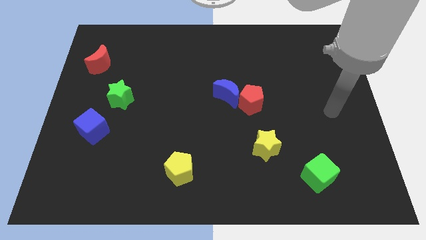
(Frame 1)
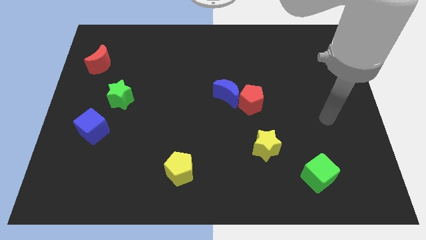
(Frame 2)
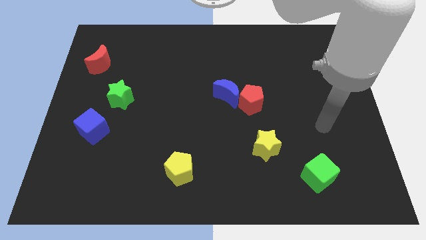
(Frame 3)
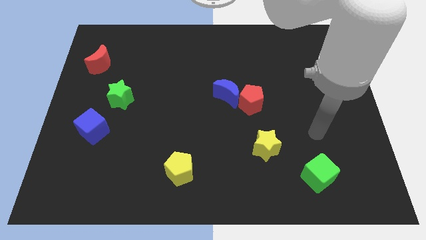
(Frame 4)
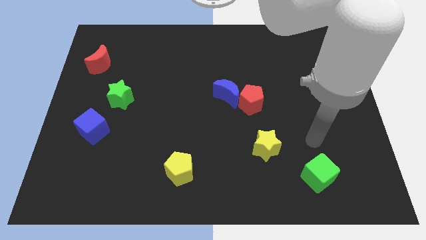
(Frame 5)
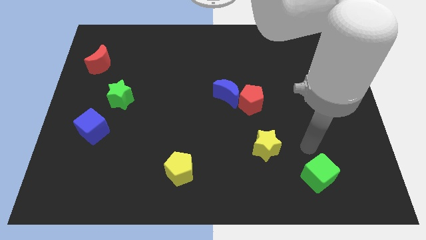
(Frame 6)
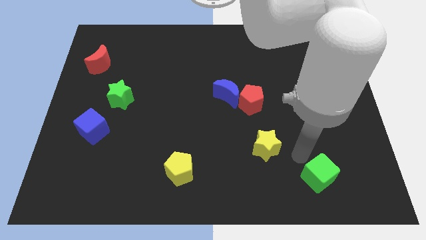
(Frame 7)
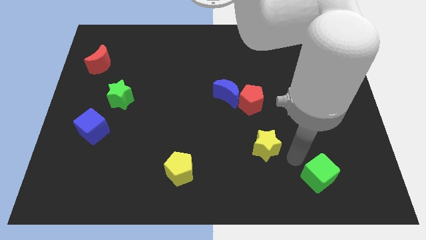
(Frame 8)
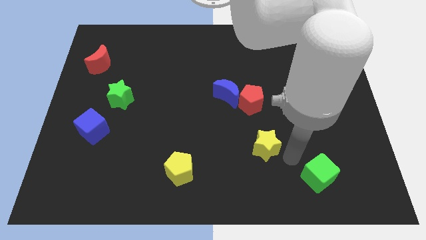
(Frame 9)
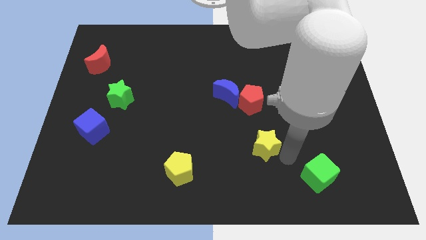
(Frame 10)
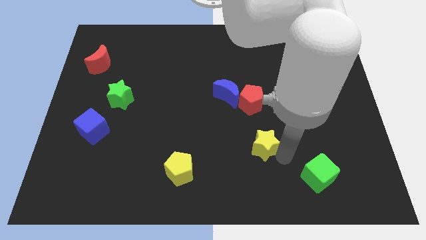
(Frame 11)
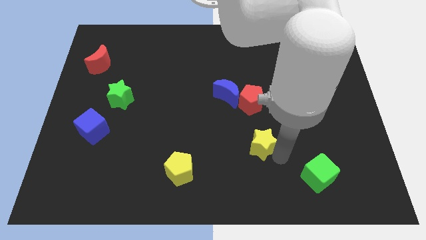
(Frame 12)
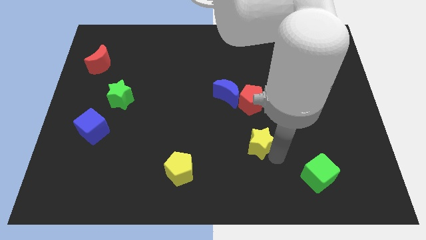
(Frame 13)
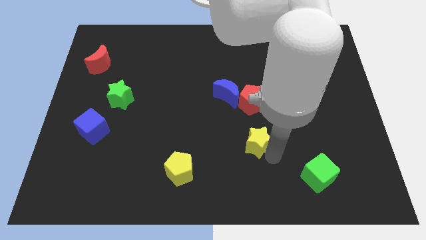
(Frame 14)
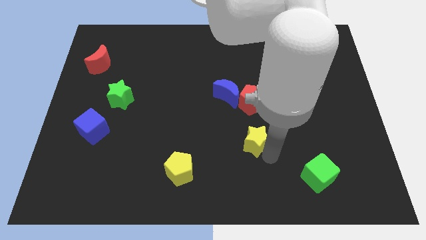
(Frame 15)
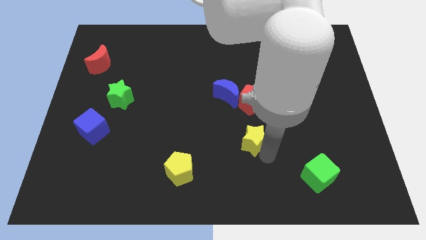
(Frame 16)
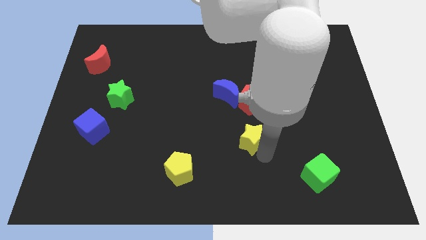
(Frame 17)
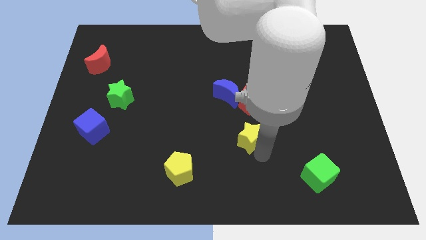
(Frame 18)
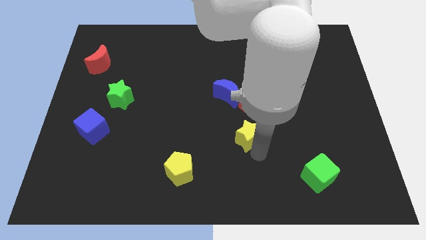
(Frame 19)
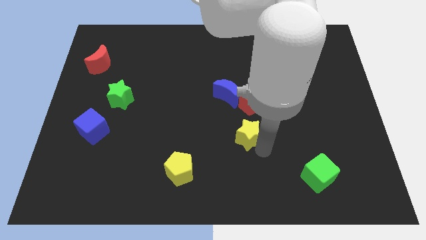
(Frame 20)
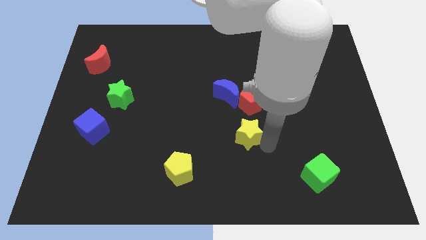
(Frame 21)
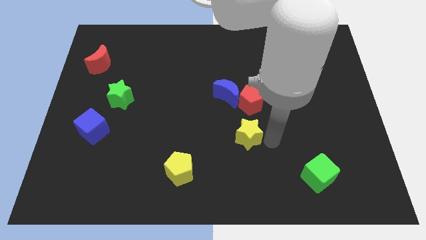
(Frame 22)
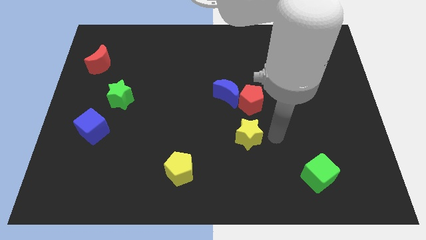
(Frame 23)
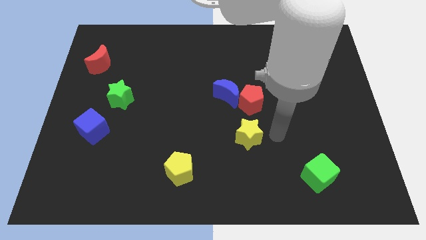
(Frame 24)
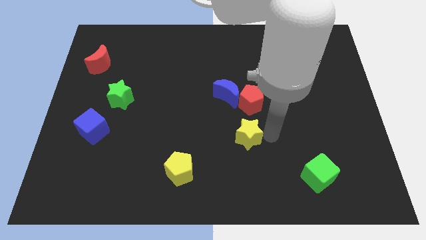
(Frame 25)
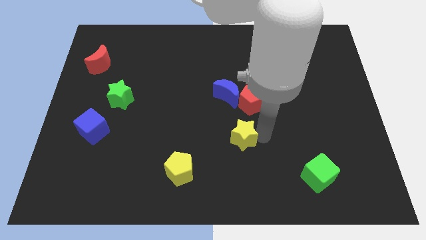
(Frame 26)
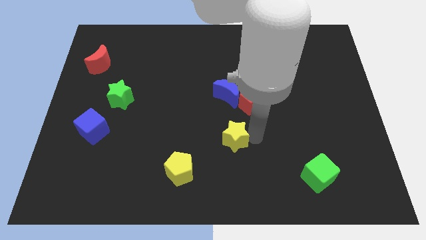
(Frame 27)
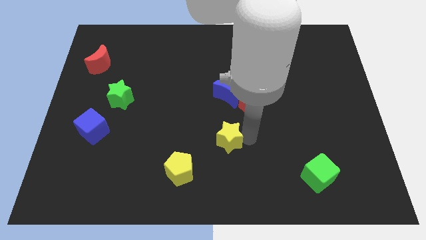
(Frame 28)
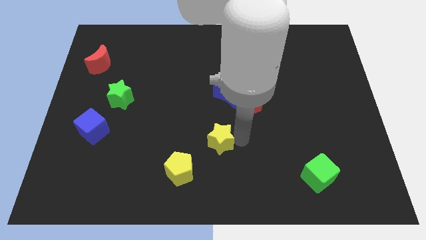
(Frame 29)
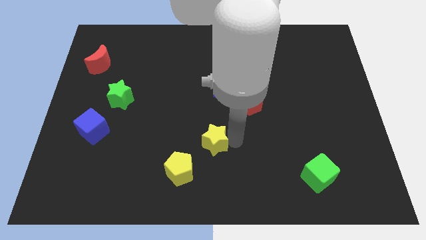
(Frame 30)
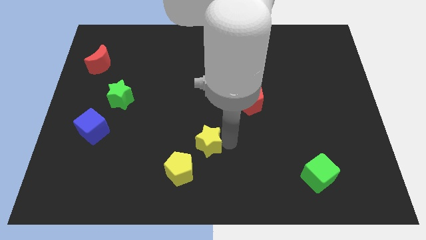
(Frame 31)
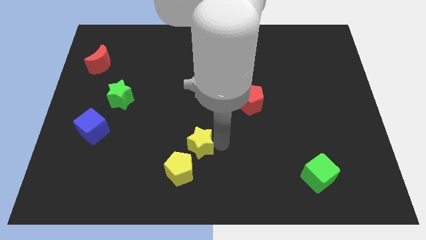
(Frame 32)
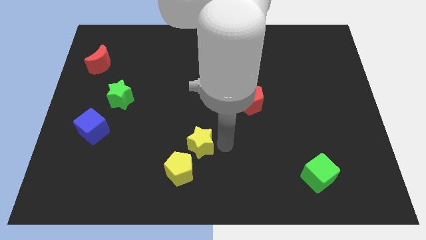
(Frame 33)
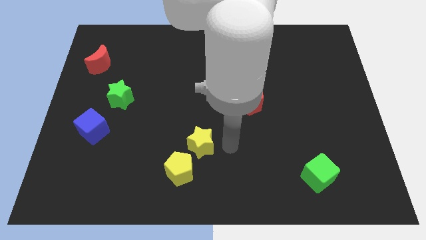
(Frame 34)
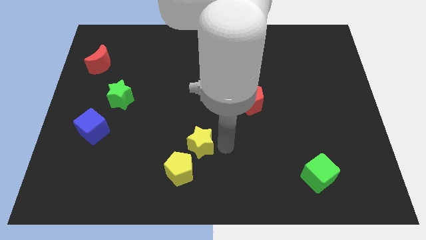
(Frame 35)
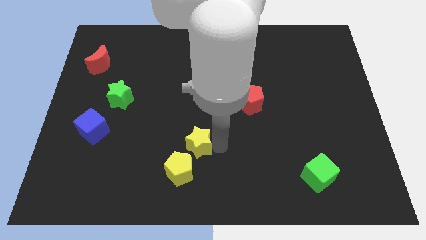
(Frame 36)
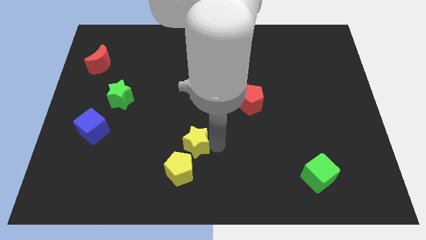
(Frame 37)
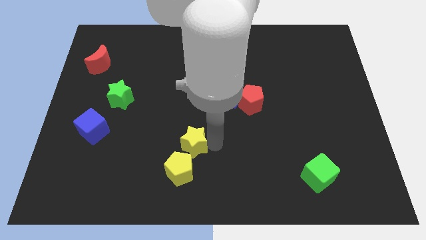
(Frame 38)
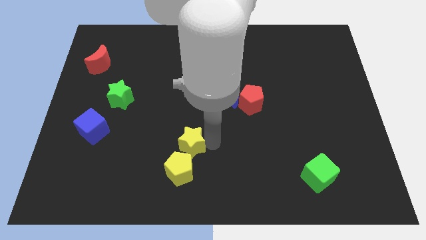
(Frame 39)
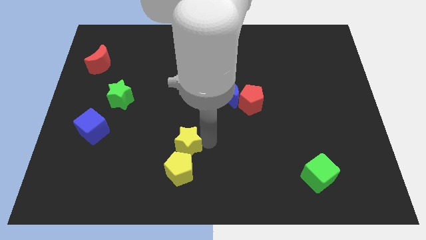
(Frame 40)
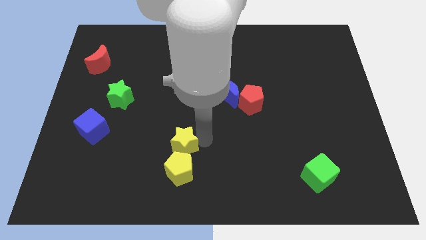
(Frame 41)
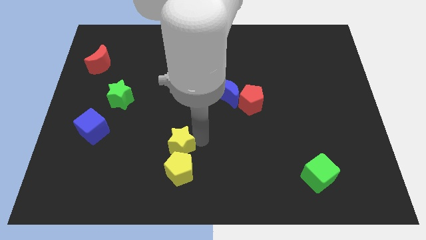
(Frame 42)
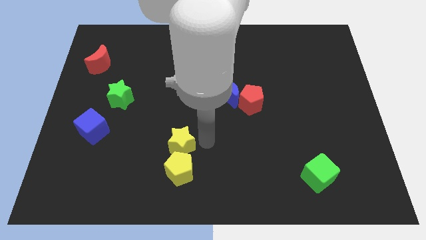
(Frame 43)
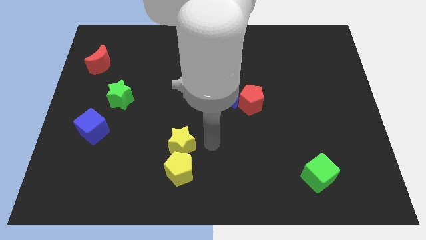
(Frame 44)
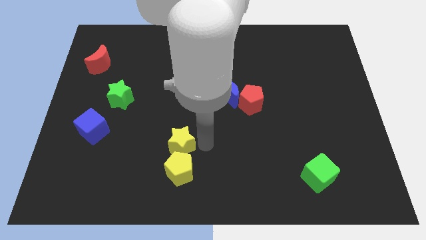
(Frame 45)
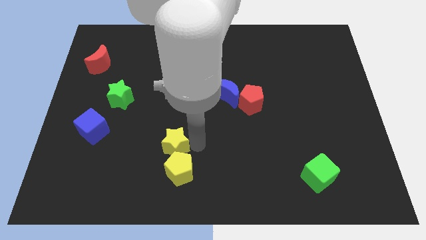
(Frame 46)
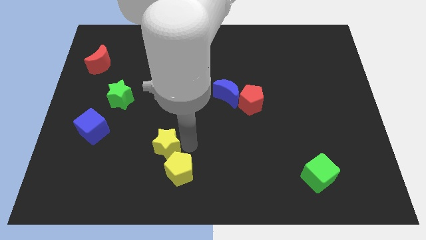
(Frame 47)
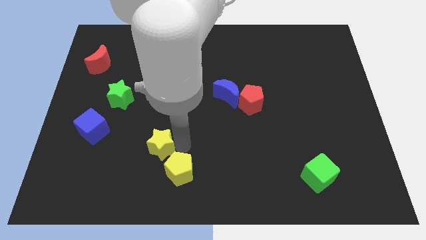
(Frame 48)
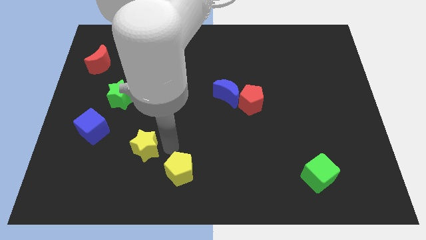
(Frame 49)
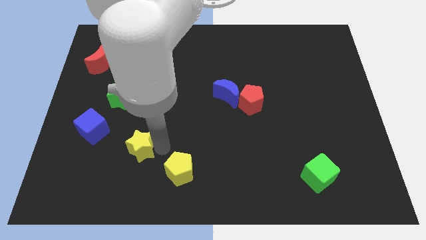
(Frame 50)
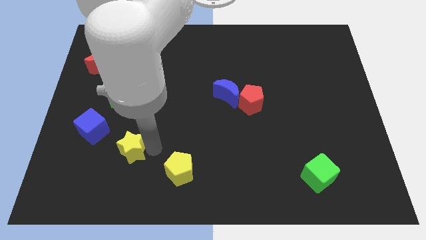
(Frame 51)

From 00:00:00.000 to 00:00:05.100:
push the yellow star to the bottom right side of the blue cube

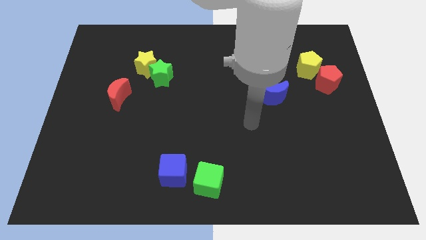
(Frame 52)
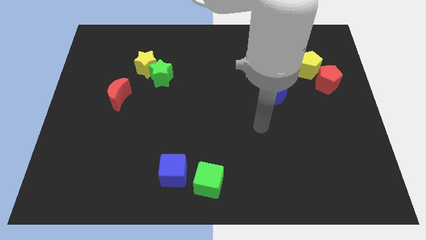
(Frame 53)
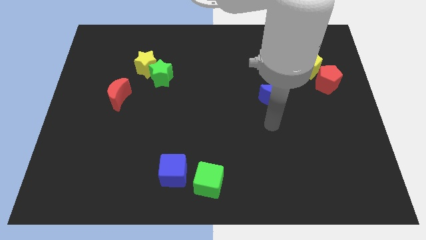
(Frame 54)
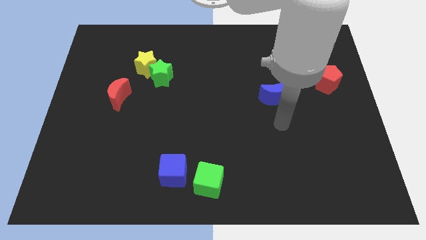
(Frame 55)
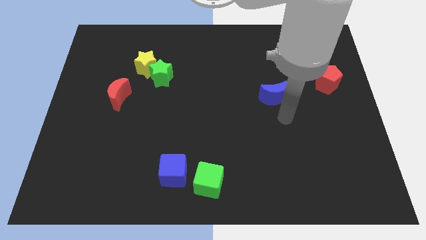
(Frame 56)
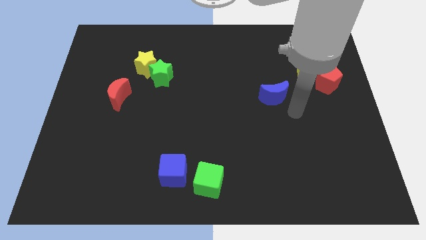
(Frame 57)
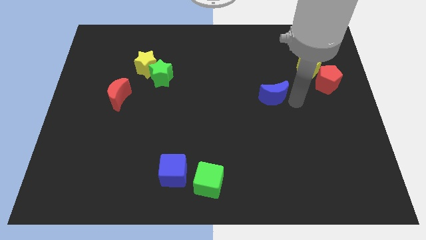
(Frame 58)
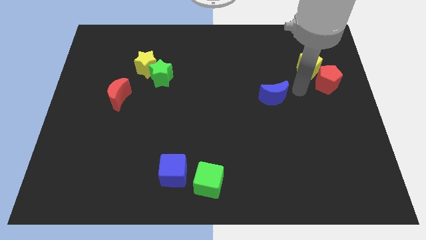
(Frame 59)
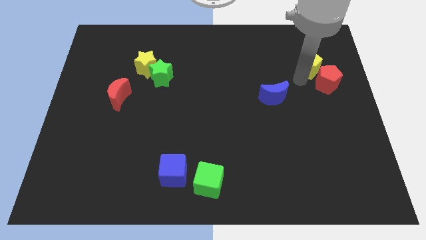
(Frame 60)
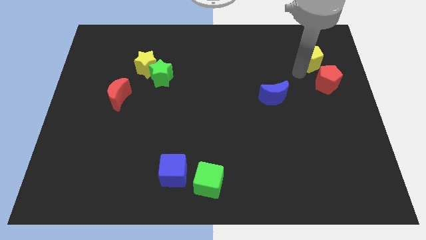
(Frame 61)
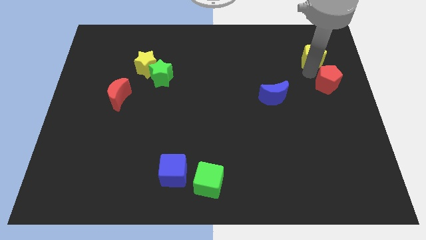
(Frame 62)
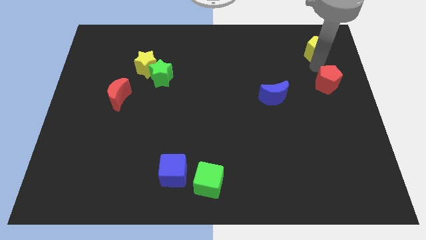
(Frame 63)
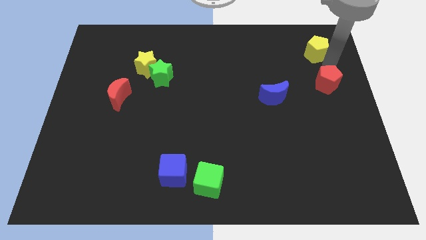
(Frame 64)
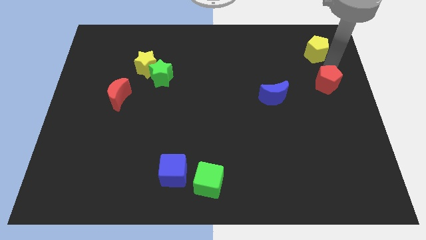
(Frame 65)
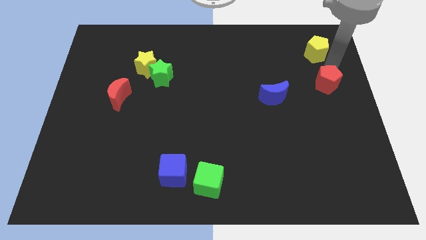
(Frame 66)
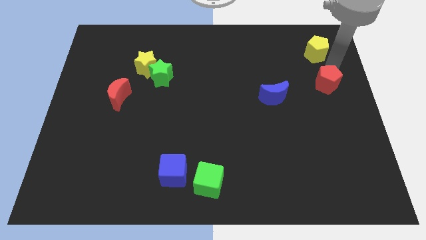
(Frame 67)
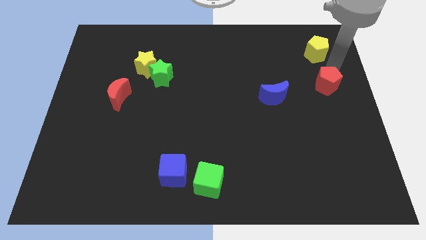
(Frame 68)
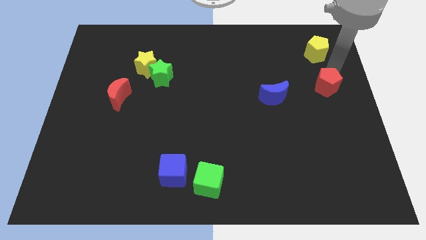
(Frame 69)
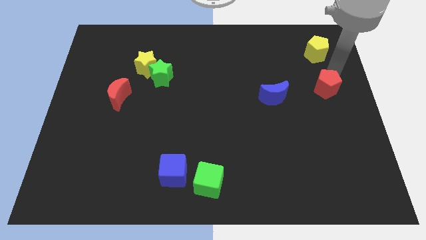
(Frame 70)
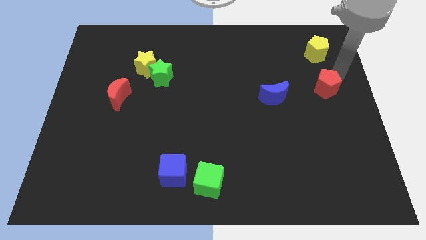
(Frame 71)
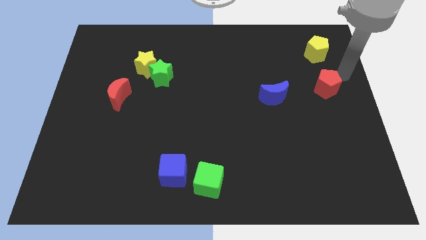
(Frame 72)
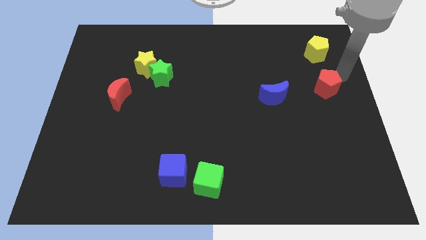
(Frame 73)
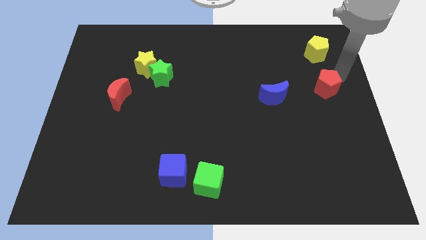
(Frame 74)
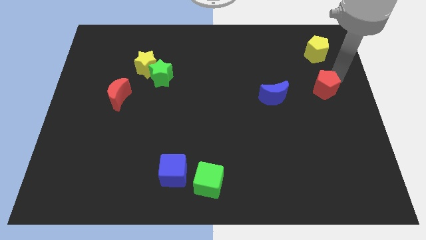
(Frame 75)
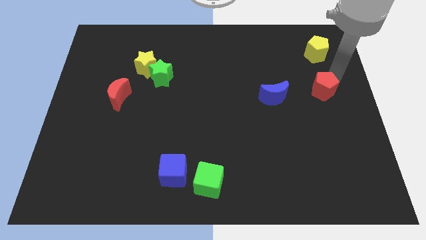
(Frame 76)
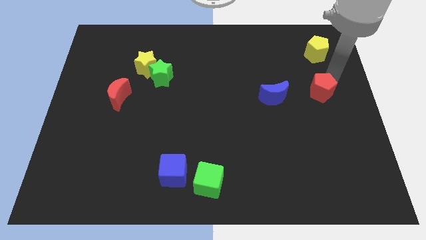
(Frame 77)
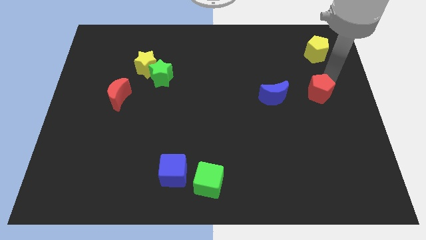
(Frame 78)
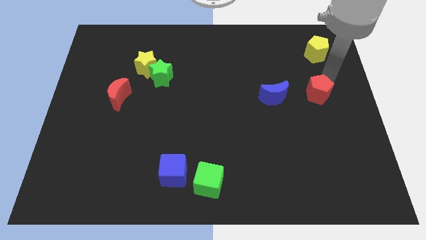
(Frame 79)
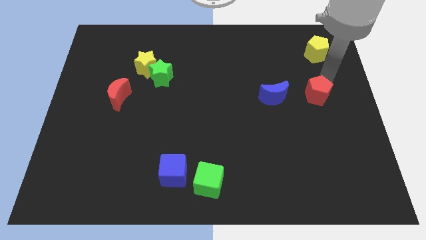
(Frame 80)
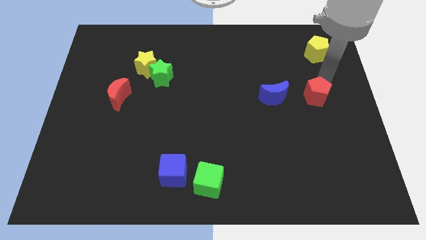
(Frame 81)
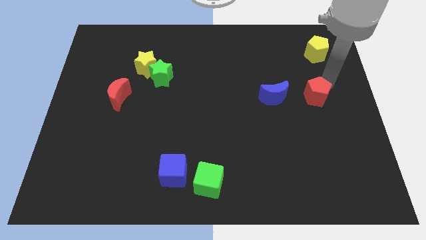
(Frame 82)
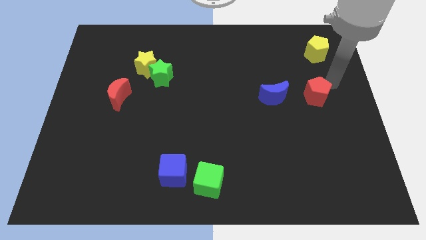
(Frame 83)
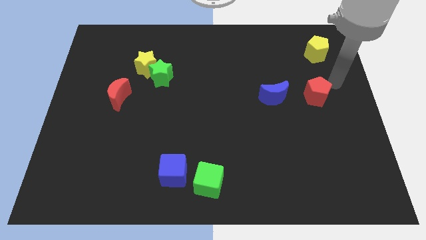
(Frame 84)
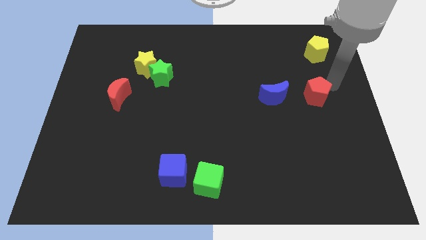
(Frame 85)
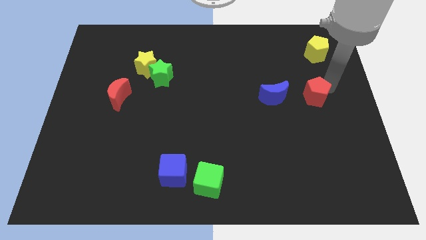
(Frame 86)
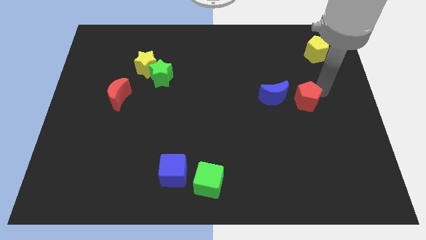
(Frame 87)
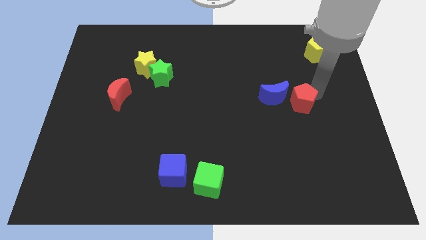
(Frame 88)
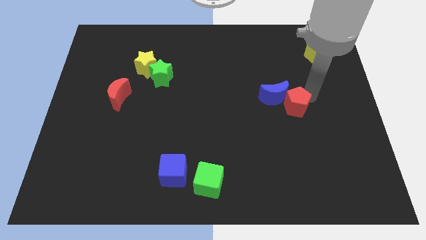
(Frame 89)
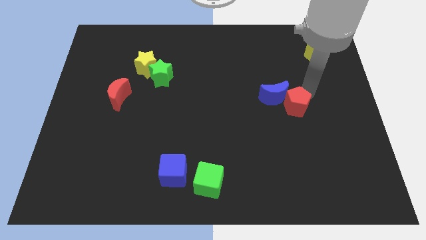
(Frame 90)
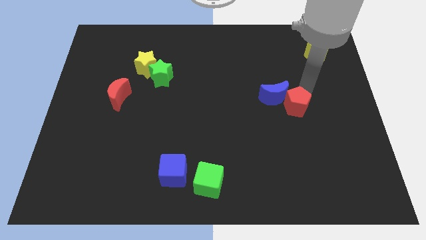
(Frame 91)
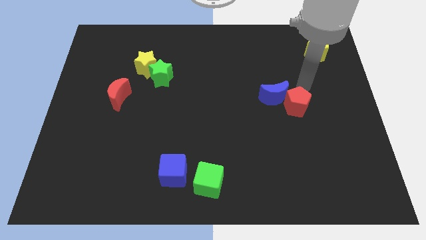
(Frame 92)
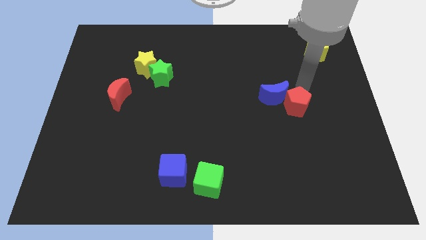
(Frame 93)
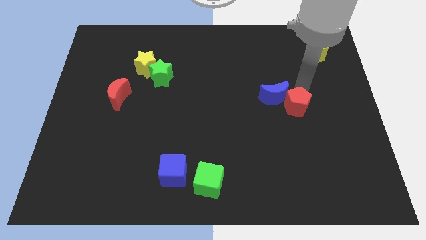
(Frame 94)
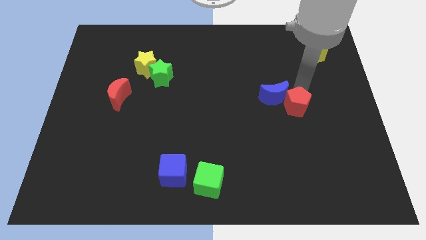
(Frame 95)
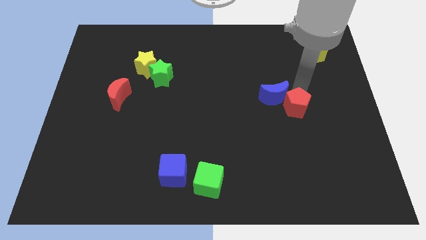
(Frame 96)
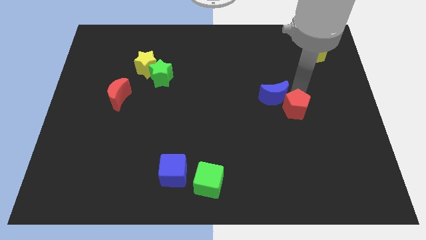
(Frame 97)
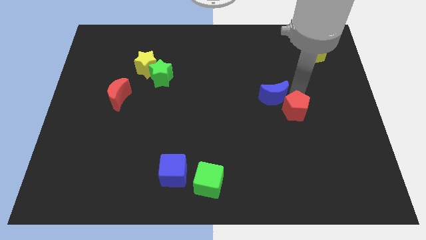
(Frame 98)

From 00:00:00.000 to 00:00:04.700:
move the red pentagon to the bottom side of the blue moon
